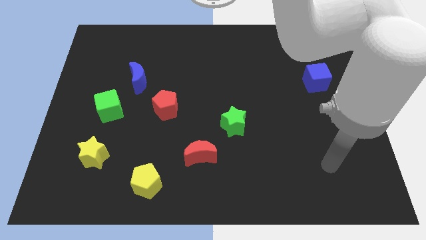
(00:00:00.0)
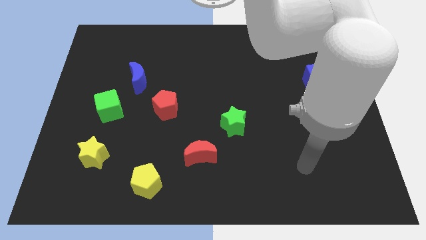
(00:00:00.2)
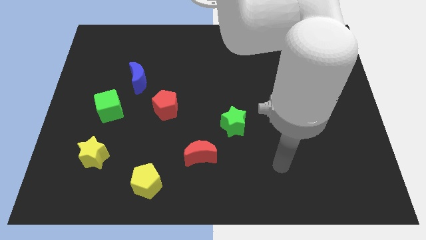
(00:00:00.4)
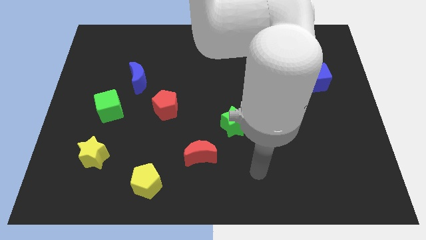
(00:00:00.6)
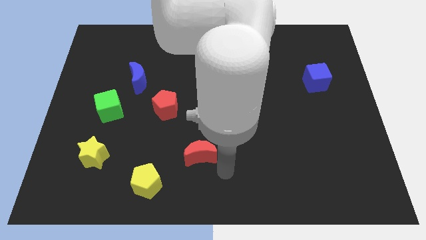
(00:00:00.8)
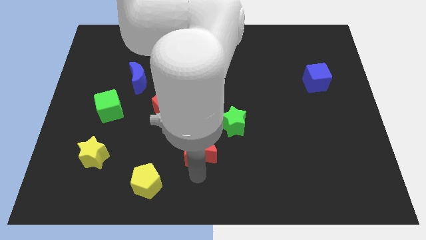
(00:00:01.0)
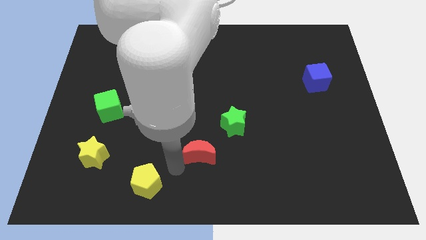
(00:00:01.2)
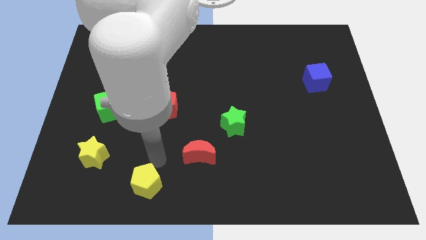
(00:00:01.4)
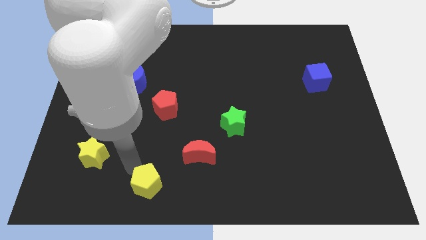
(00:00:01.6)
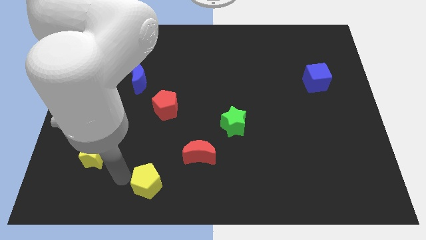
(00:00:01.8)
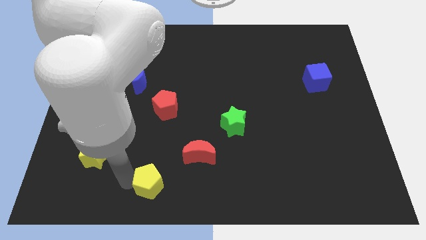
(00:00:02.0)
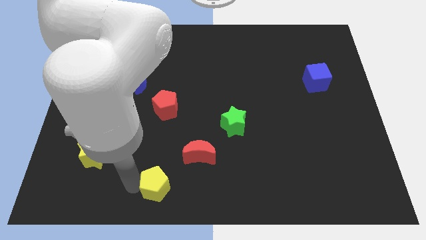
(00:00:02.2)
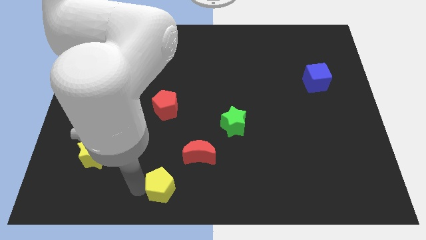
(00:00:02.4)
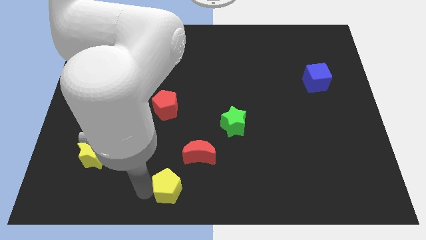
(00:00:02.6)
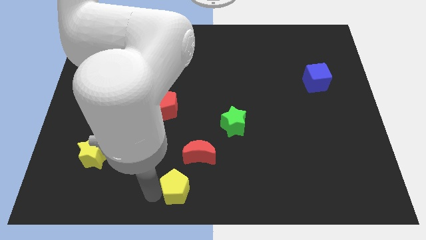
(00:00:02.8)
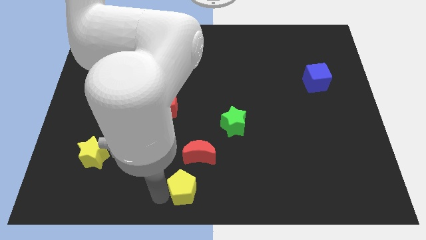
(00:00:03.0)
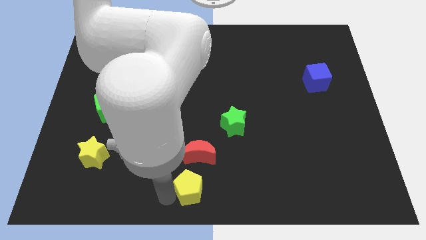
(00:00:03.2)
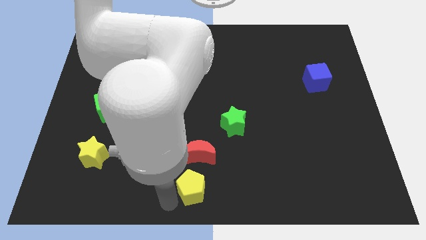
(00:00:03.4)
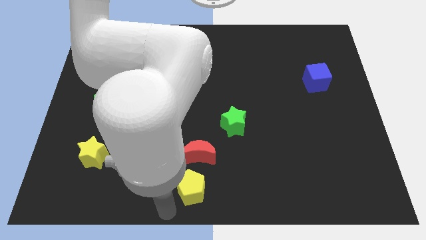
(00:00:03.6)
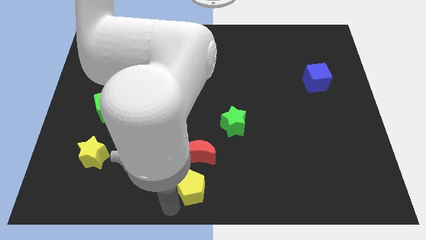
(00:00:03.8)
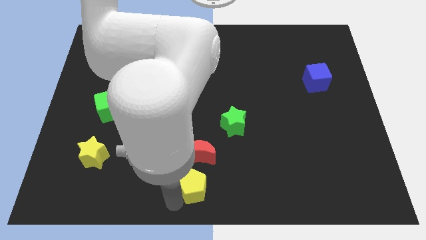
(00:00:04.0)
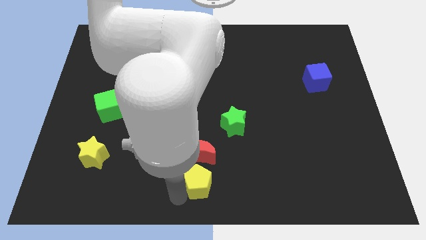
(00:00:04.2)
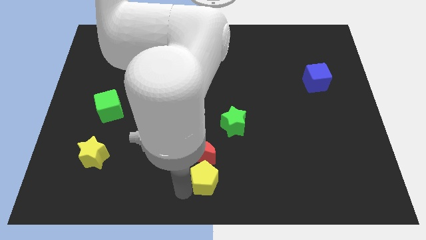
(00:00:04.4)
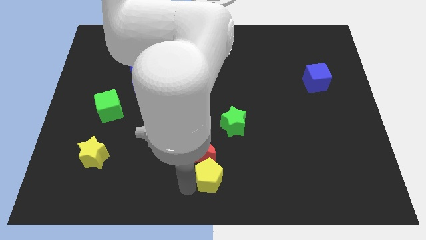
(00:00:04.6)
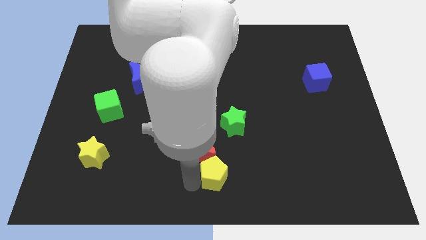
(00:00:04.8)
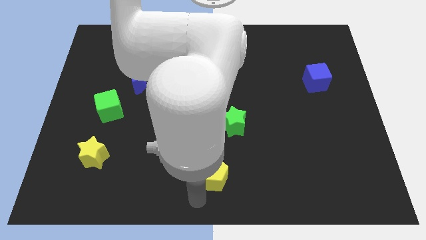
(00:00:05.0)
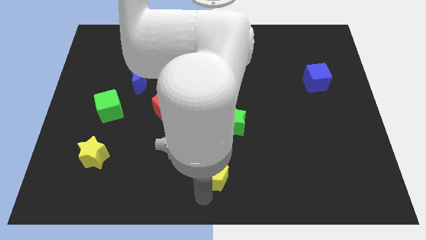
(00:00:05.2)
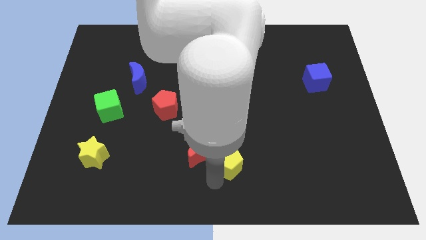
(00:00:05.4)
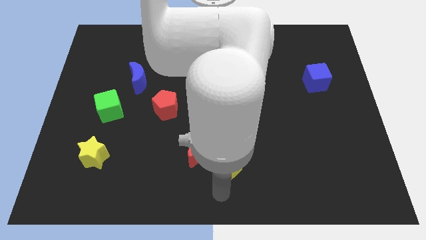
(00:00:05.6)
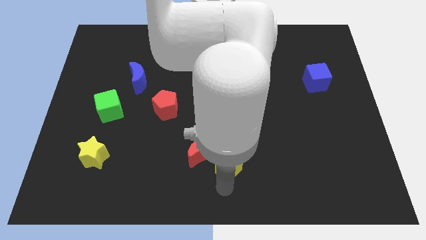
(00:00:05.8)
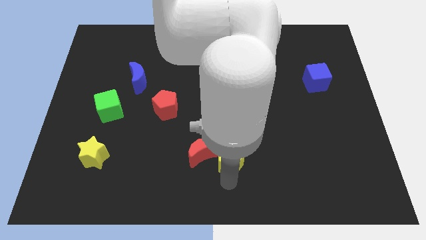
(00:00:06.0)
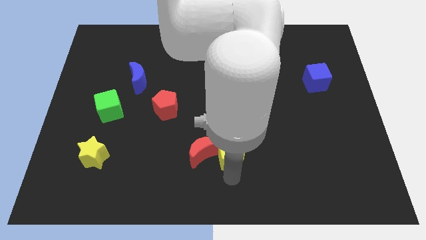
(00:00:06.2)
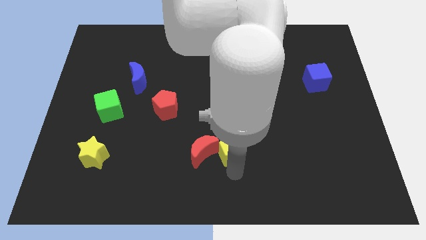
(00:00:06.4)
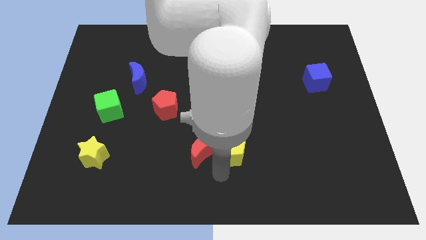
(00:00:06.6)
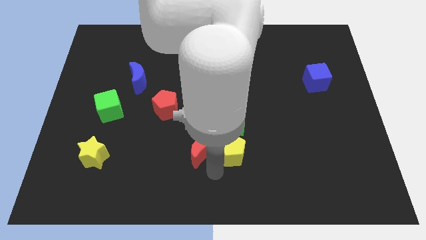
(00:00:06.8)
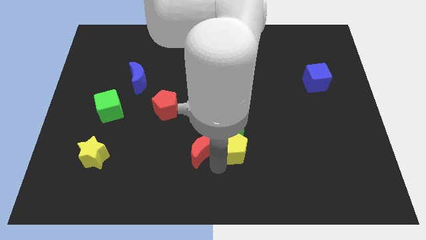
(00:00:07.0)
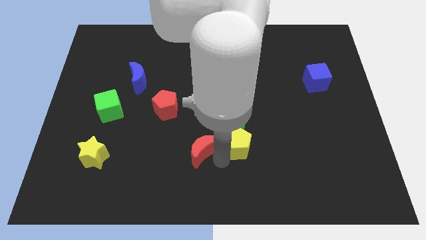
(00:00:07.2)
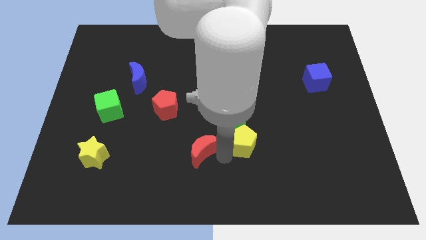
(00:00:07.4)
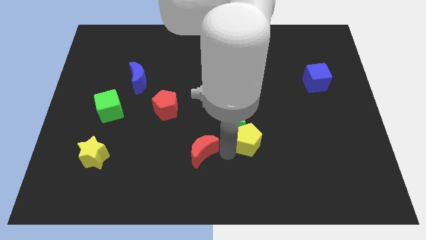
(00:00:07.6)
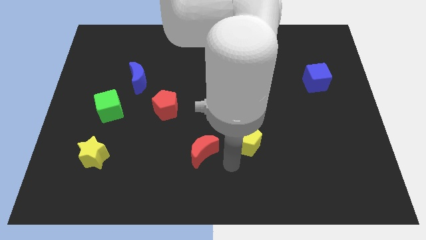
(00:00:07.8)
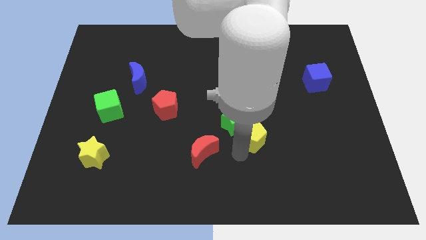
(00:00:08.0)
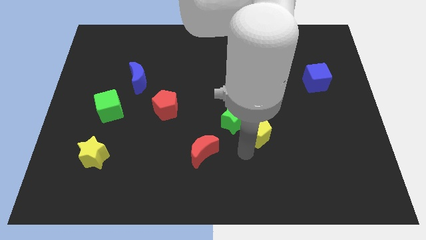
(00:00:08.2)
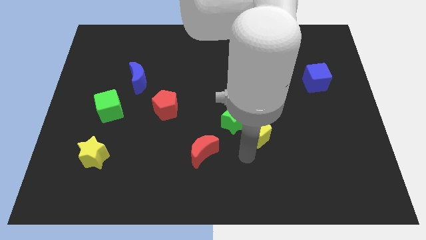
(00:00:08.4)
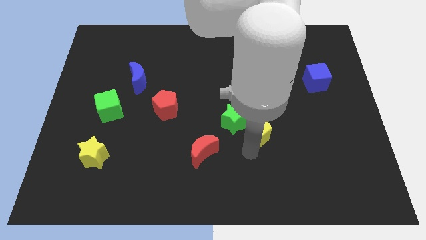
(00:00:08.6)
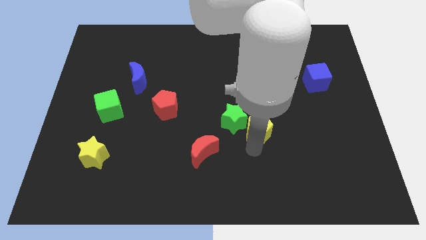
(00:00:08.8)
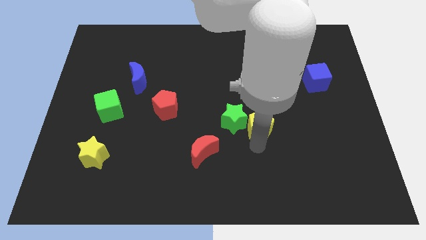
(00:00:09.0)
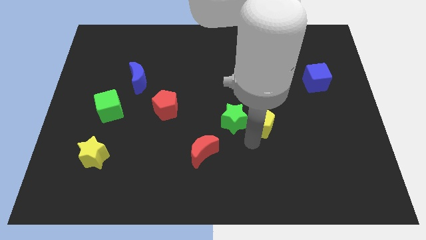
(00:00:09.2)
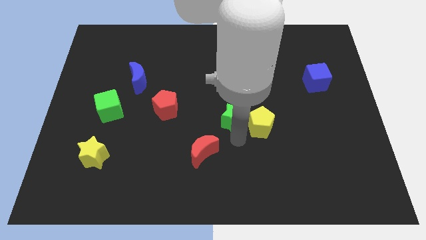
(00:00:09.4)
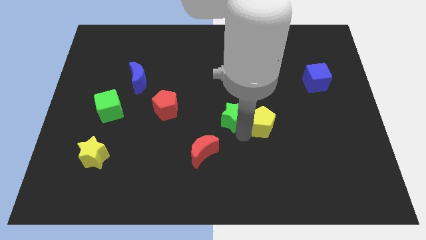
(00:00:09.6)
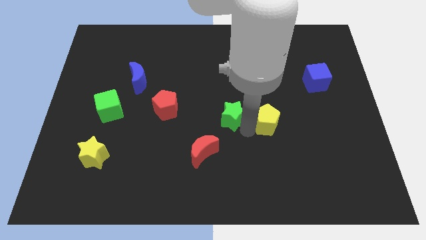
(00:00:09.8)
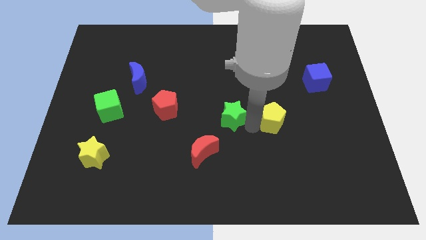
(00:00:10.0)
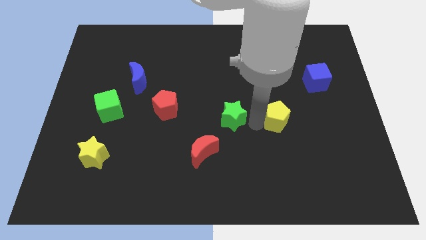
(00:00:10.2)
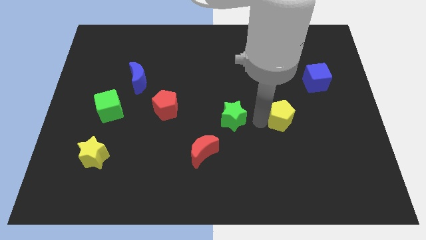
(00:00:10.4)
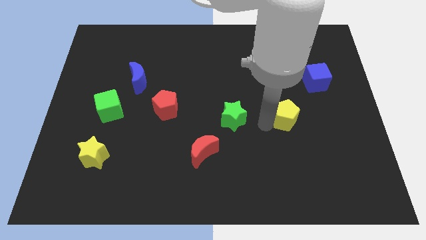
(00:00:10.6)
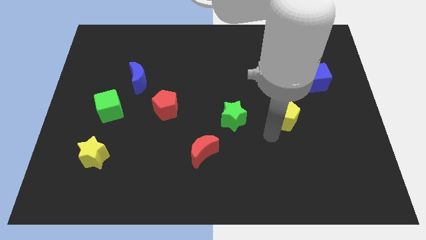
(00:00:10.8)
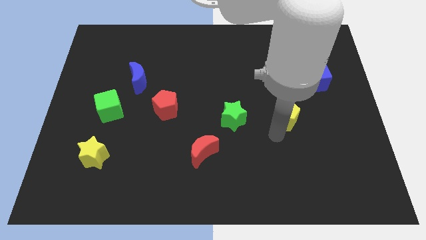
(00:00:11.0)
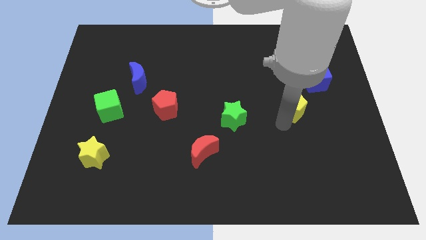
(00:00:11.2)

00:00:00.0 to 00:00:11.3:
push the yellow pentagon to the bottom left of the blue cube

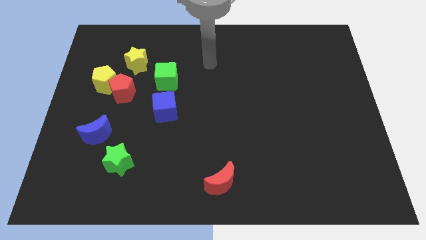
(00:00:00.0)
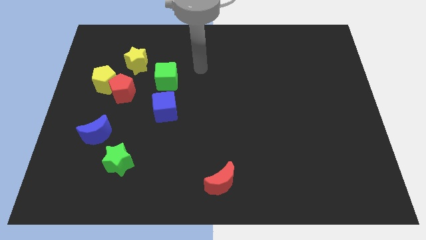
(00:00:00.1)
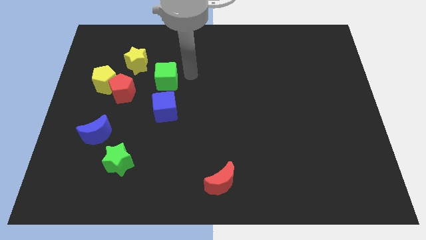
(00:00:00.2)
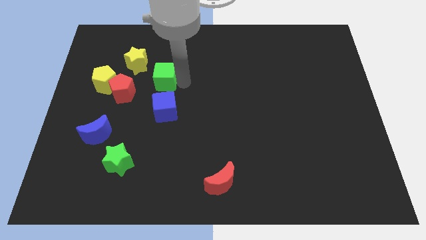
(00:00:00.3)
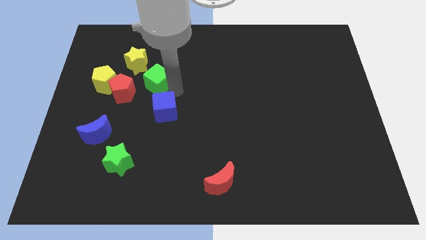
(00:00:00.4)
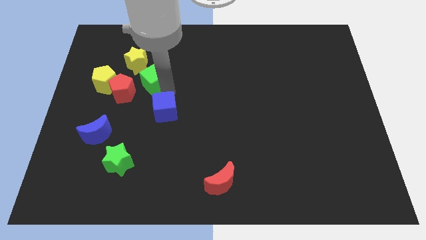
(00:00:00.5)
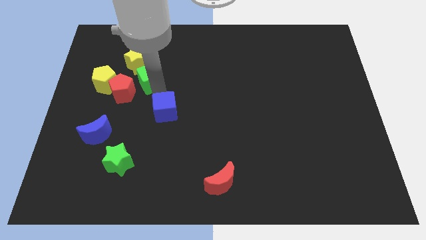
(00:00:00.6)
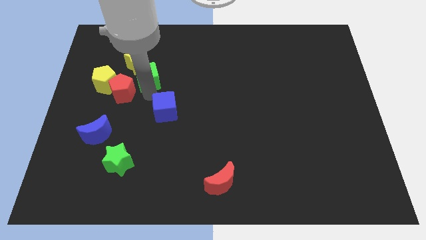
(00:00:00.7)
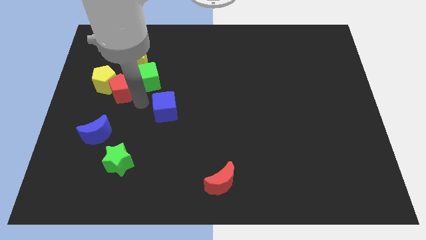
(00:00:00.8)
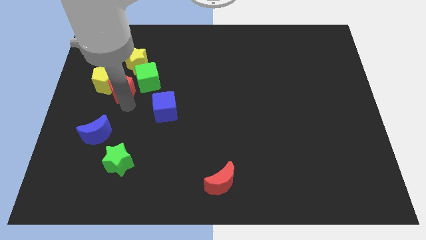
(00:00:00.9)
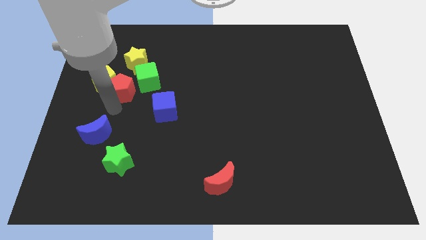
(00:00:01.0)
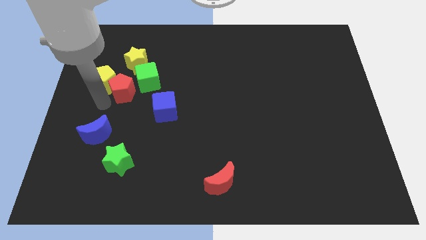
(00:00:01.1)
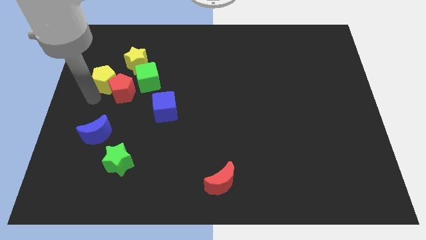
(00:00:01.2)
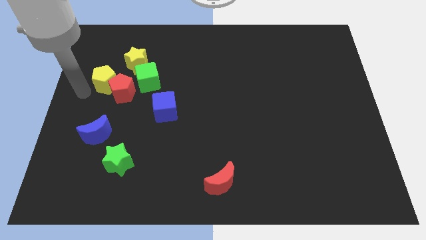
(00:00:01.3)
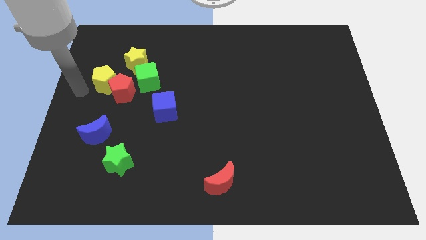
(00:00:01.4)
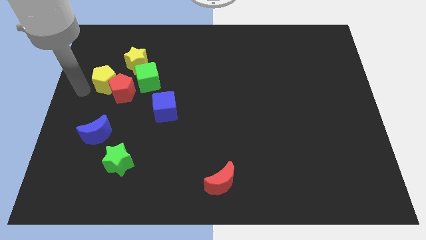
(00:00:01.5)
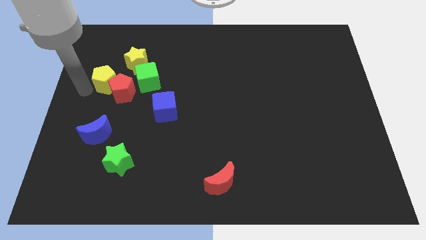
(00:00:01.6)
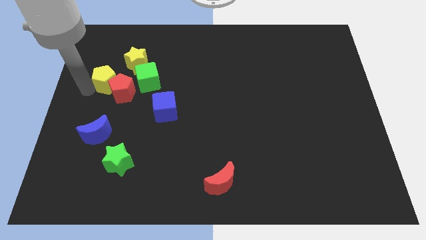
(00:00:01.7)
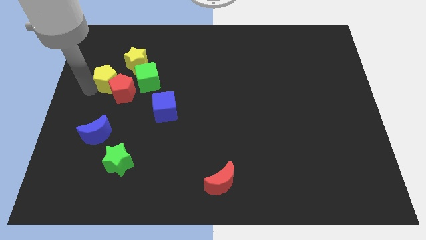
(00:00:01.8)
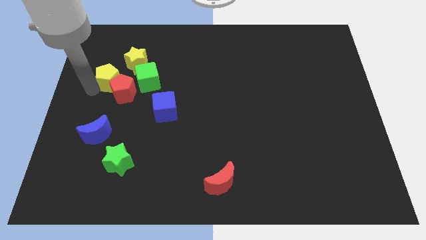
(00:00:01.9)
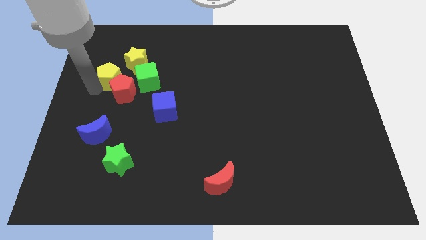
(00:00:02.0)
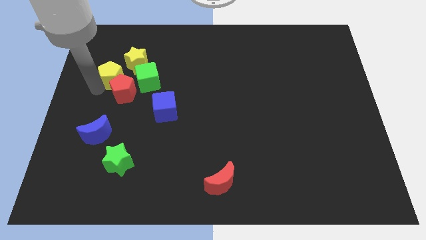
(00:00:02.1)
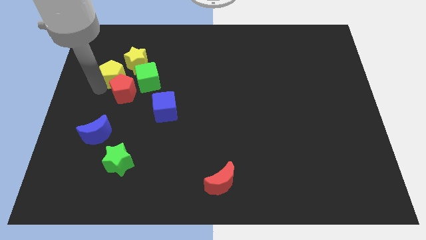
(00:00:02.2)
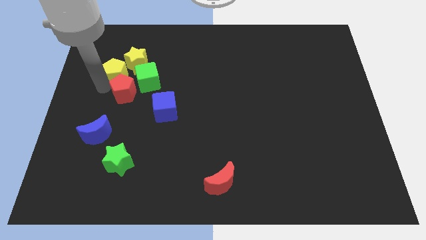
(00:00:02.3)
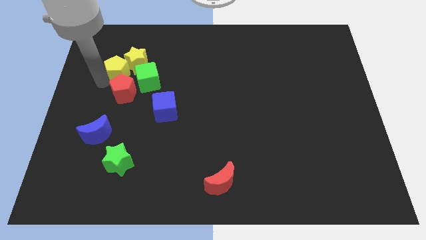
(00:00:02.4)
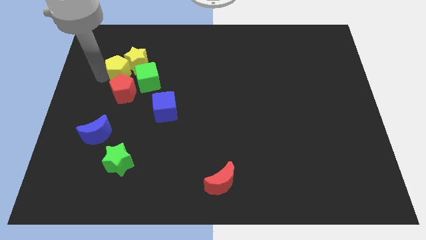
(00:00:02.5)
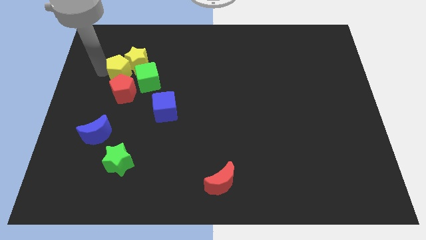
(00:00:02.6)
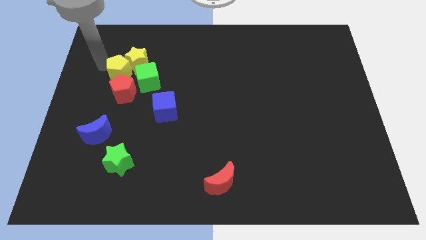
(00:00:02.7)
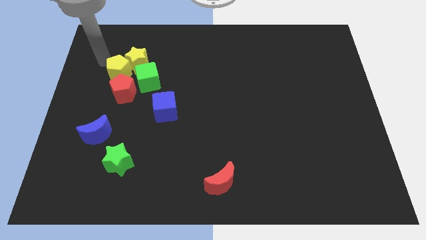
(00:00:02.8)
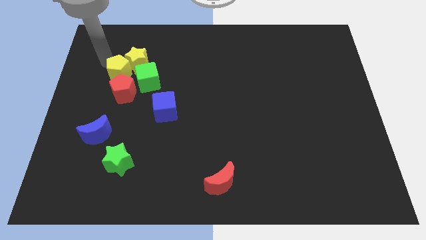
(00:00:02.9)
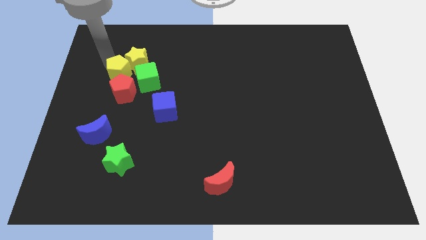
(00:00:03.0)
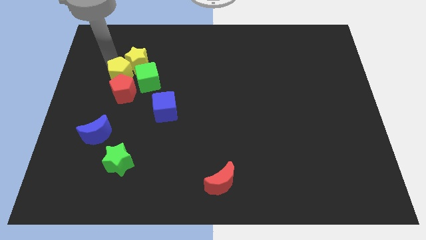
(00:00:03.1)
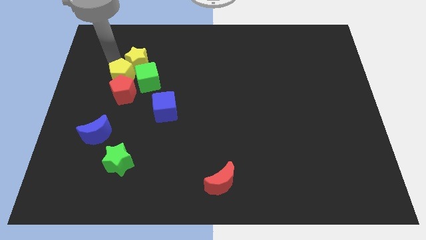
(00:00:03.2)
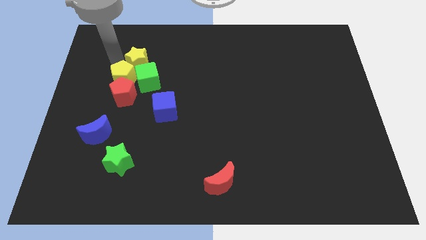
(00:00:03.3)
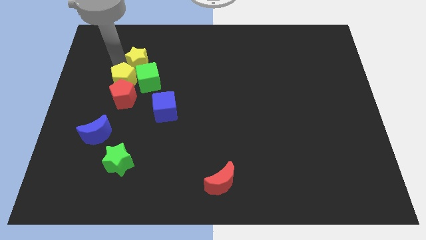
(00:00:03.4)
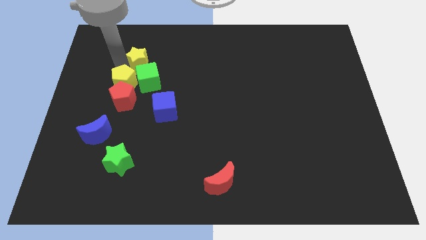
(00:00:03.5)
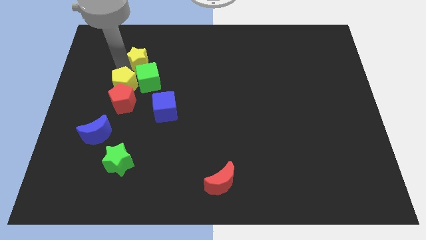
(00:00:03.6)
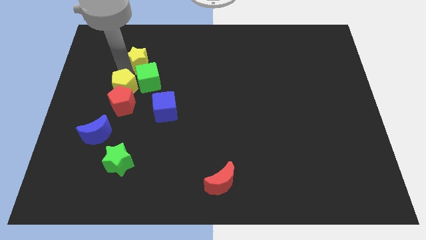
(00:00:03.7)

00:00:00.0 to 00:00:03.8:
move the yellow pentagon to the top left side of the blue cube
